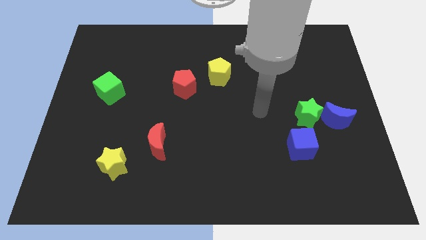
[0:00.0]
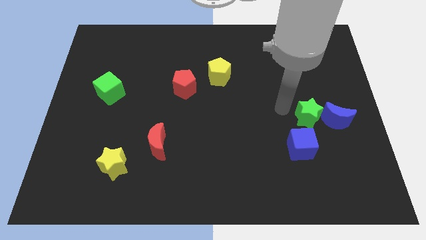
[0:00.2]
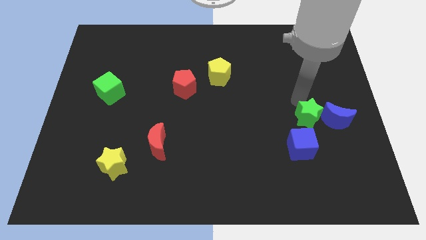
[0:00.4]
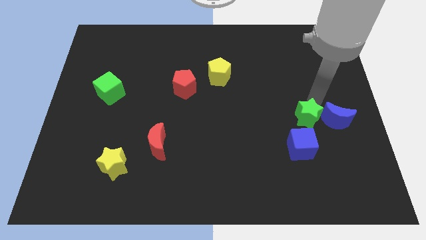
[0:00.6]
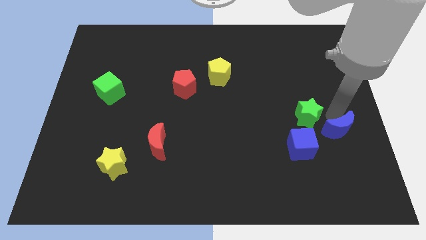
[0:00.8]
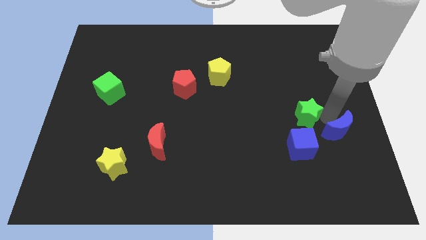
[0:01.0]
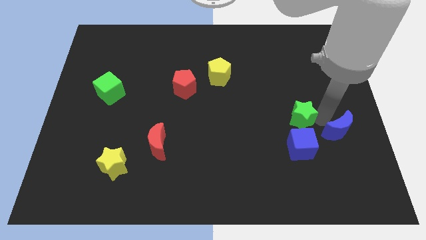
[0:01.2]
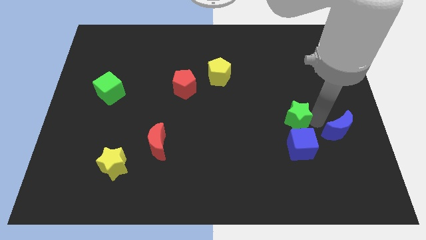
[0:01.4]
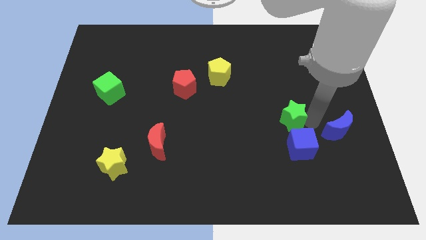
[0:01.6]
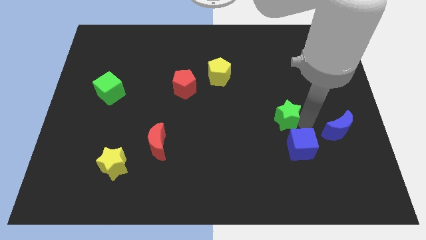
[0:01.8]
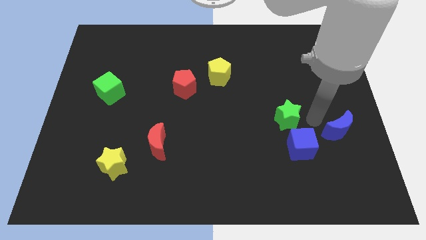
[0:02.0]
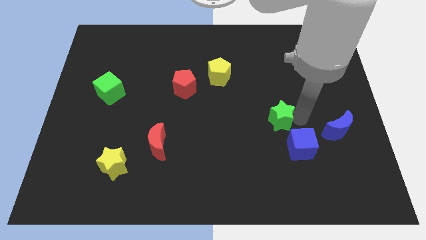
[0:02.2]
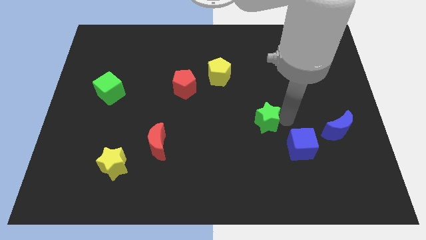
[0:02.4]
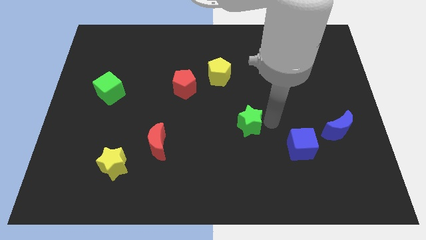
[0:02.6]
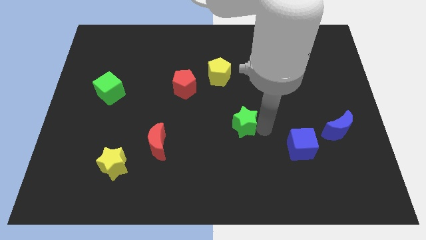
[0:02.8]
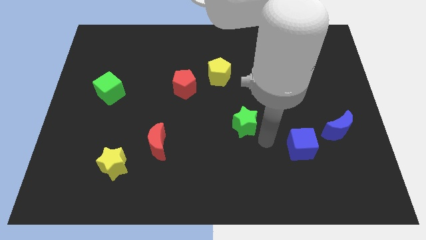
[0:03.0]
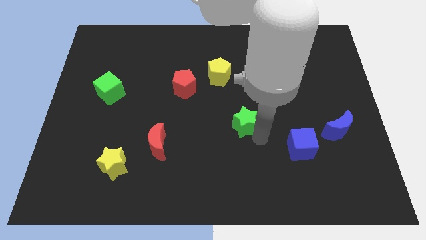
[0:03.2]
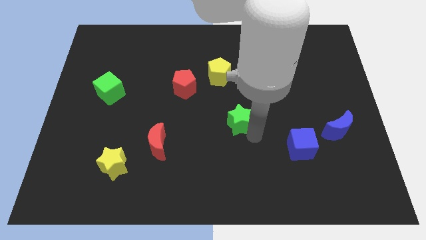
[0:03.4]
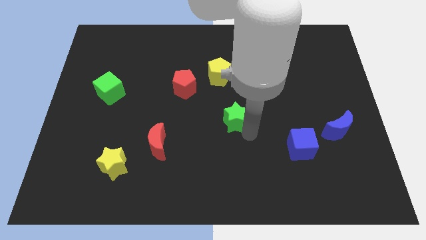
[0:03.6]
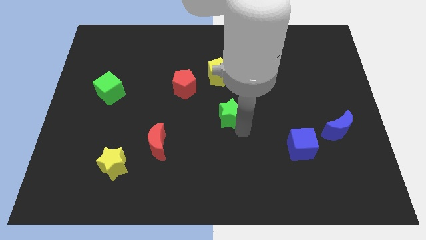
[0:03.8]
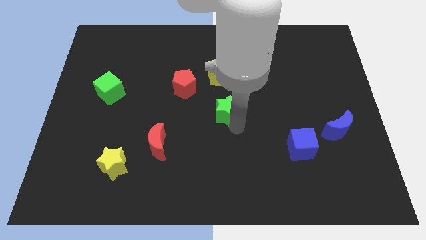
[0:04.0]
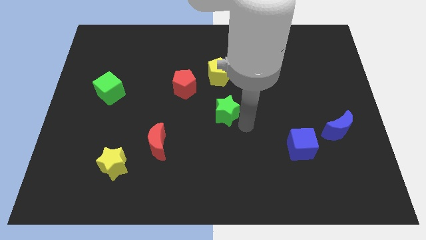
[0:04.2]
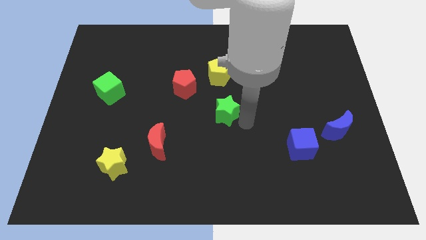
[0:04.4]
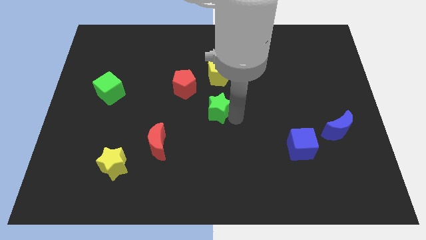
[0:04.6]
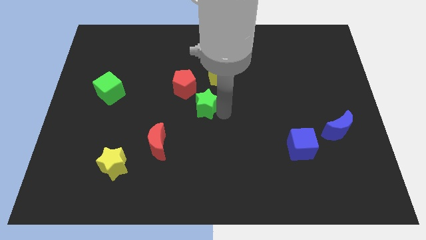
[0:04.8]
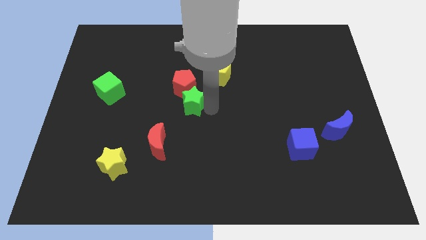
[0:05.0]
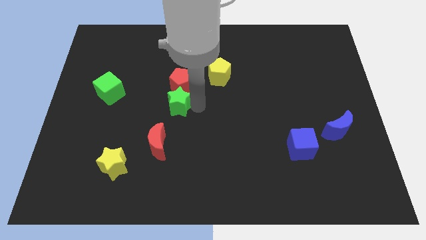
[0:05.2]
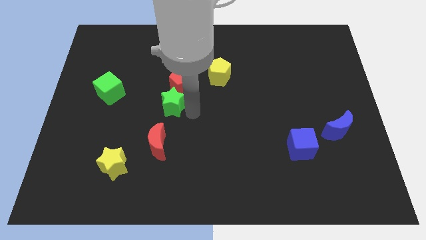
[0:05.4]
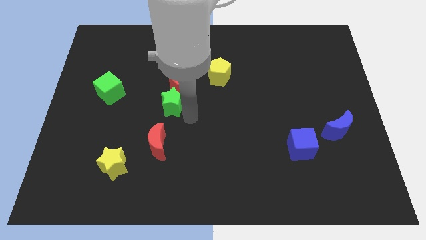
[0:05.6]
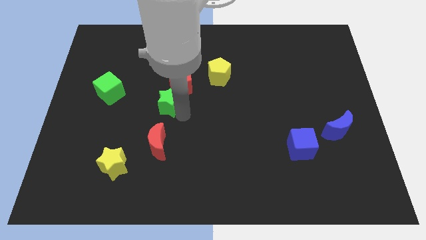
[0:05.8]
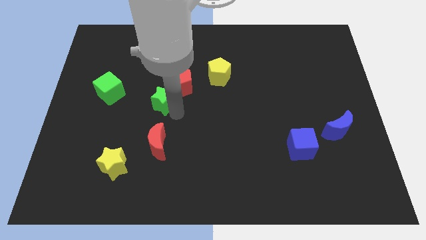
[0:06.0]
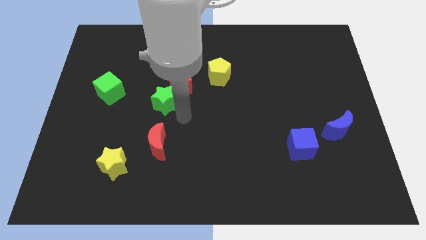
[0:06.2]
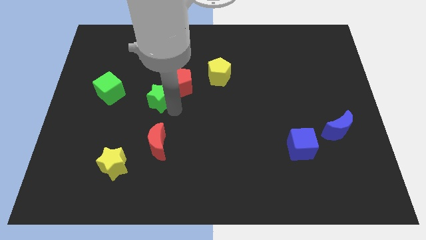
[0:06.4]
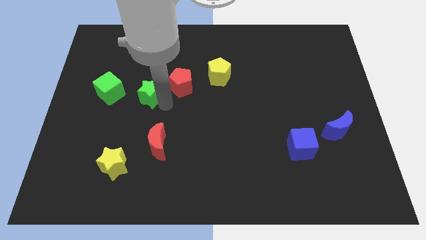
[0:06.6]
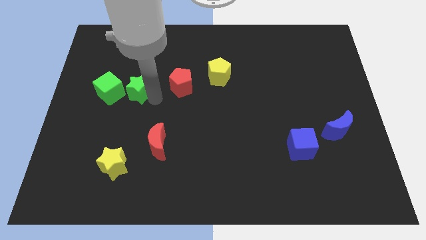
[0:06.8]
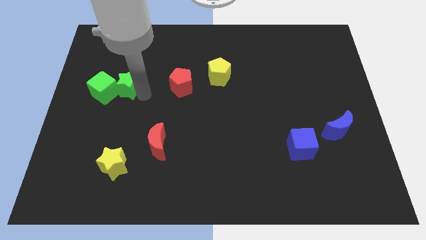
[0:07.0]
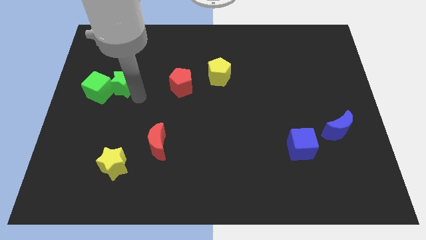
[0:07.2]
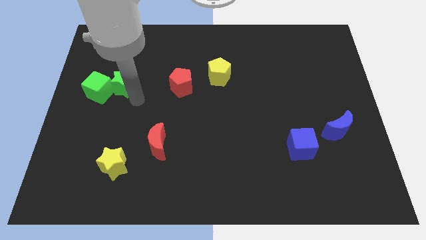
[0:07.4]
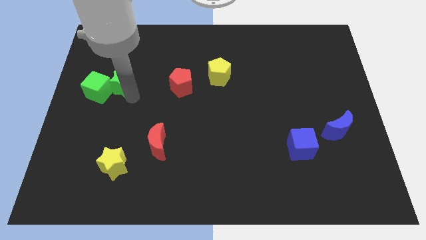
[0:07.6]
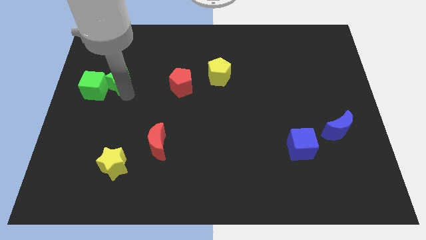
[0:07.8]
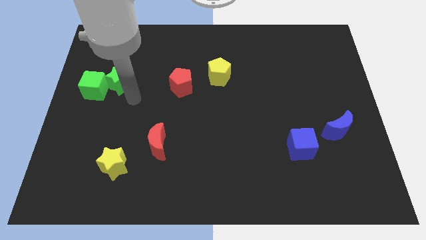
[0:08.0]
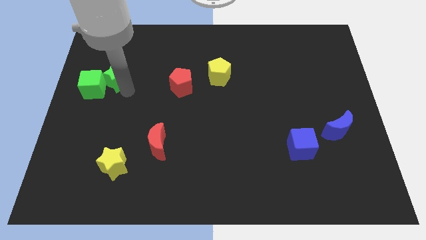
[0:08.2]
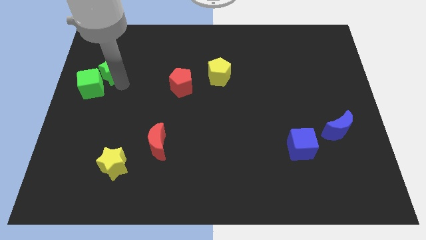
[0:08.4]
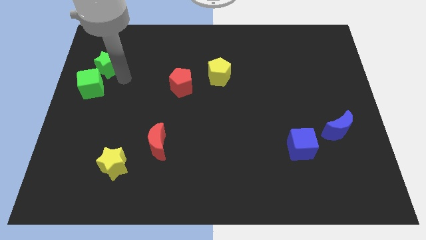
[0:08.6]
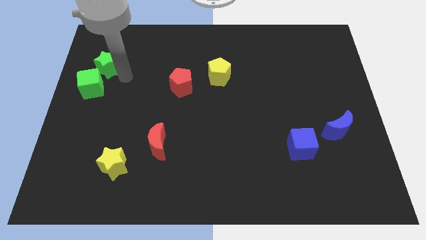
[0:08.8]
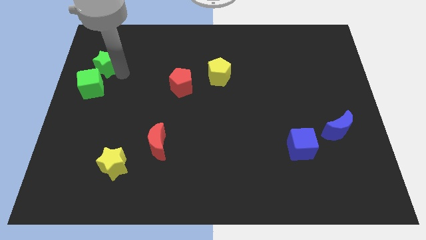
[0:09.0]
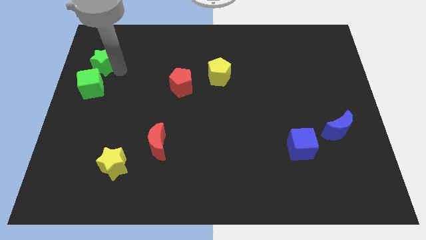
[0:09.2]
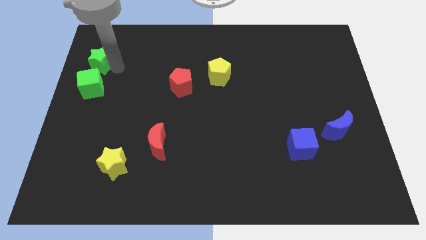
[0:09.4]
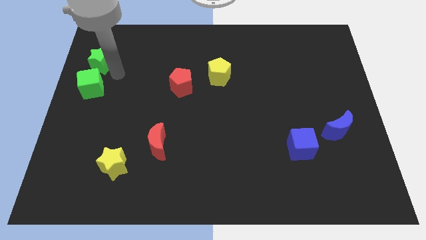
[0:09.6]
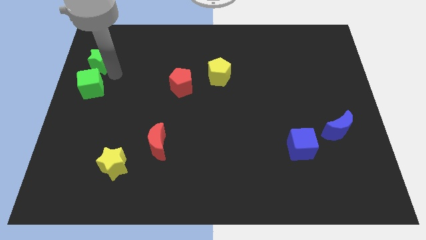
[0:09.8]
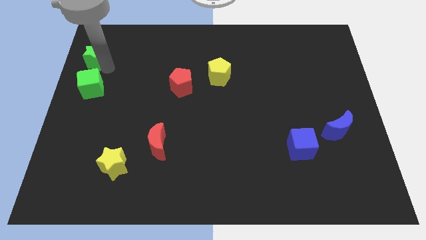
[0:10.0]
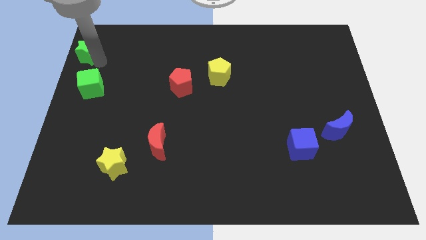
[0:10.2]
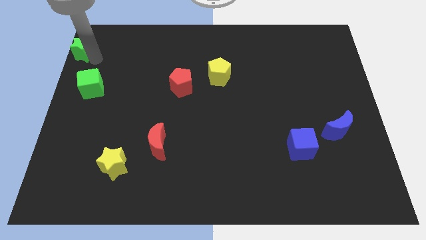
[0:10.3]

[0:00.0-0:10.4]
put the green star to the top left of the board

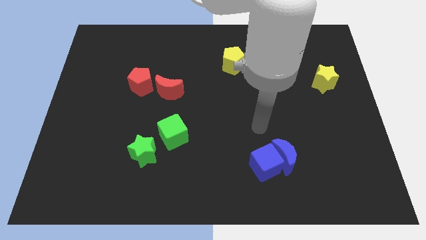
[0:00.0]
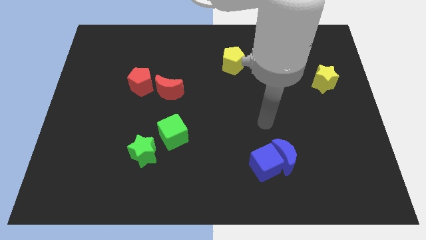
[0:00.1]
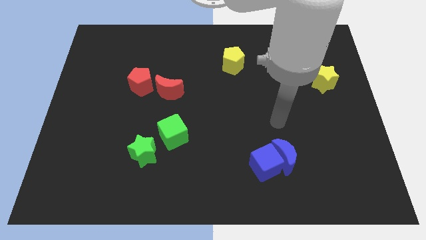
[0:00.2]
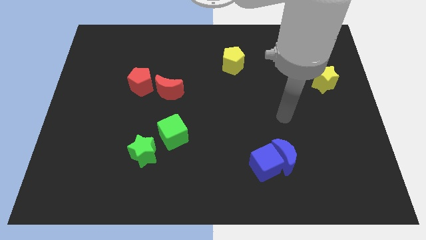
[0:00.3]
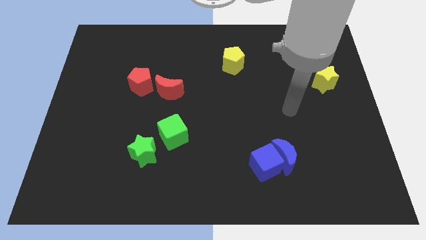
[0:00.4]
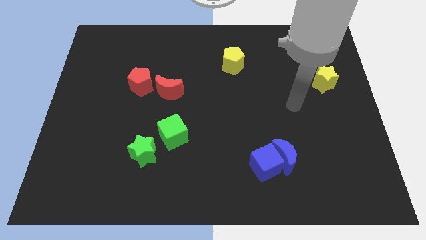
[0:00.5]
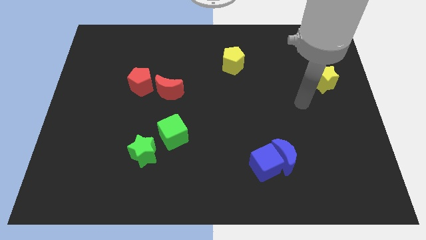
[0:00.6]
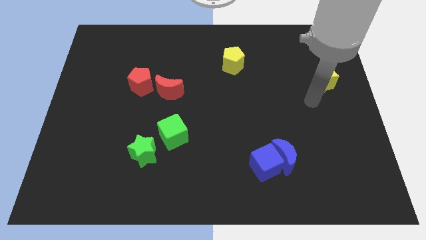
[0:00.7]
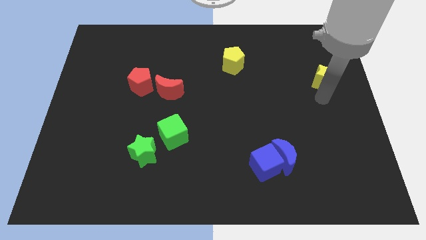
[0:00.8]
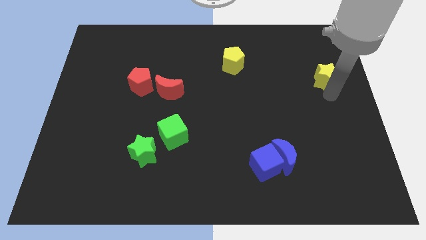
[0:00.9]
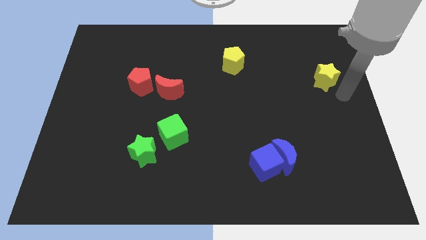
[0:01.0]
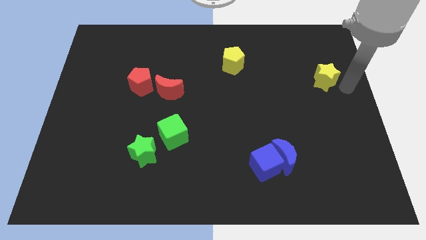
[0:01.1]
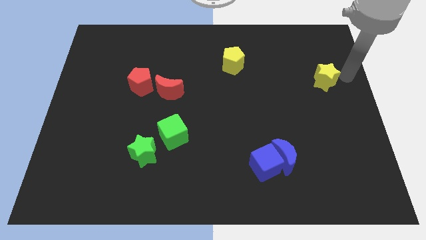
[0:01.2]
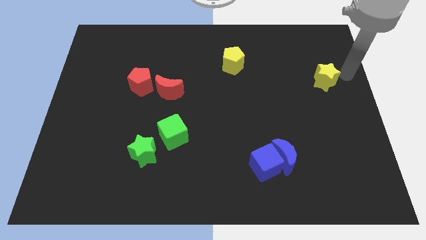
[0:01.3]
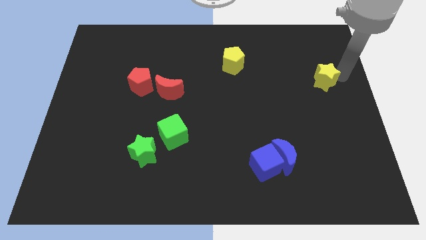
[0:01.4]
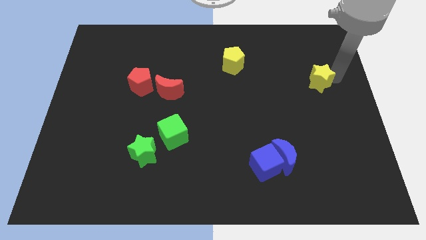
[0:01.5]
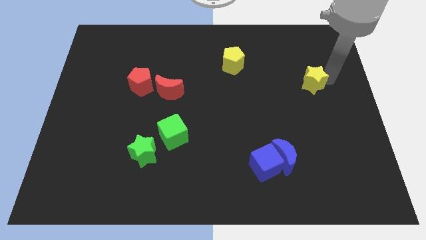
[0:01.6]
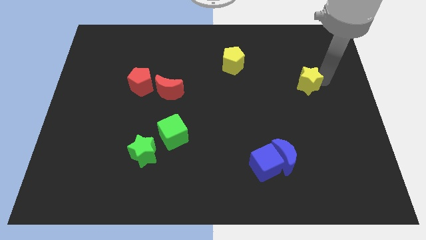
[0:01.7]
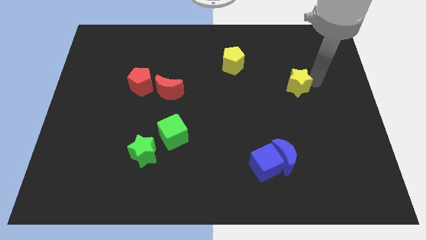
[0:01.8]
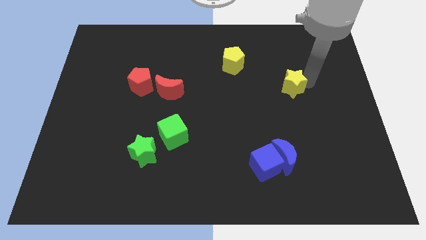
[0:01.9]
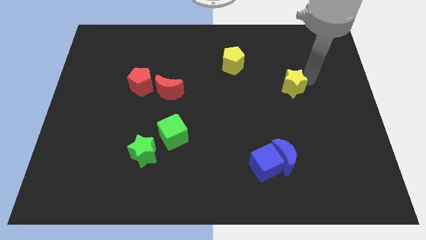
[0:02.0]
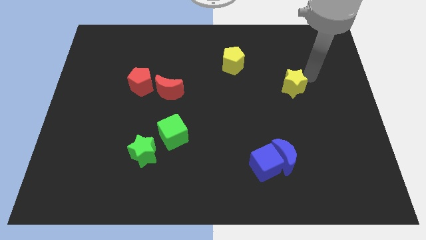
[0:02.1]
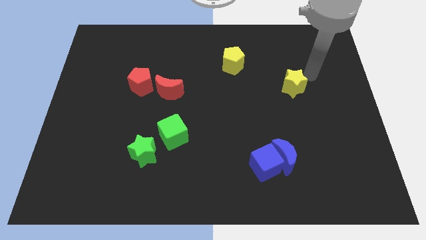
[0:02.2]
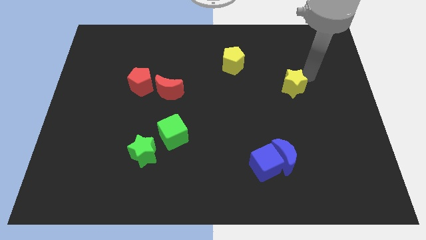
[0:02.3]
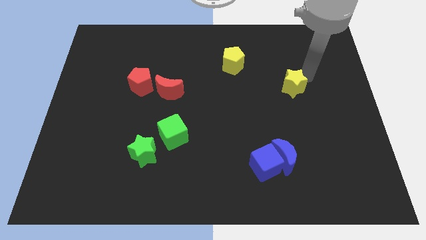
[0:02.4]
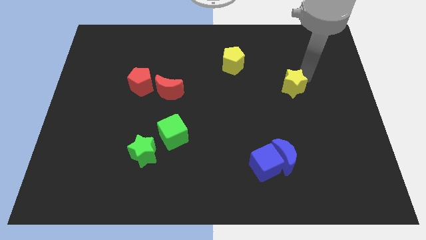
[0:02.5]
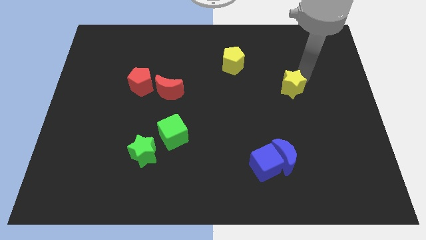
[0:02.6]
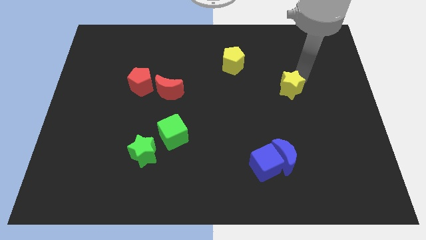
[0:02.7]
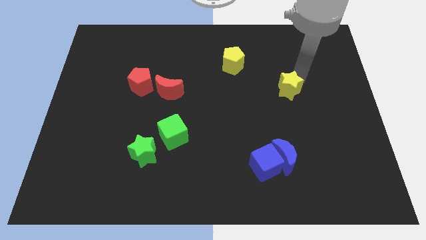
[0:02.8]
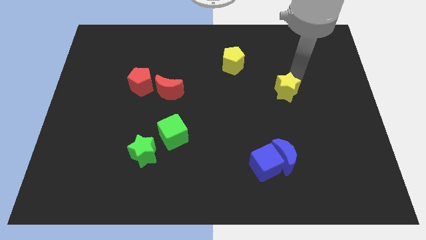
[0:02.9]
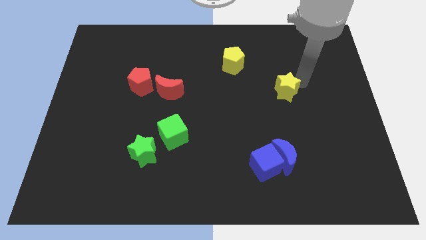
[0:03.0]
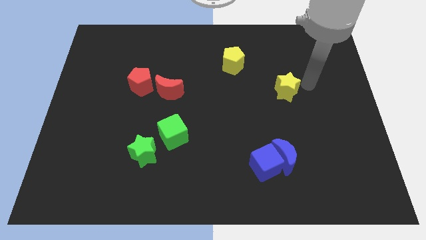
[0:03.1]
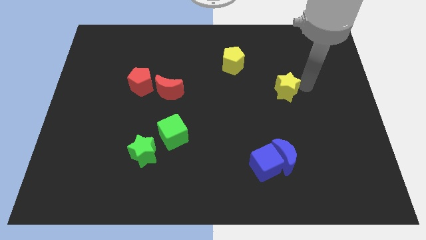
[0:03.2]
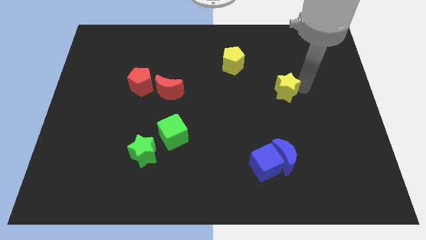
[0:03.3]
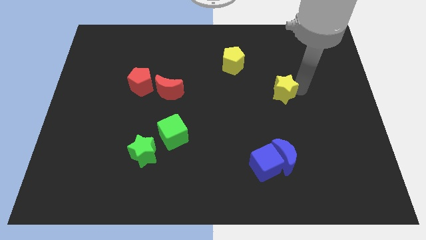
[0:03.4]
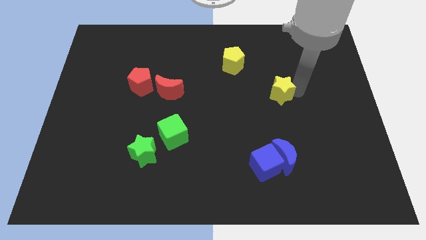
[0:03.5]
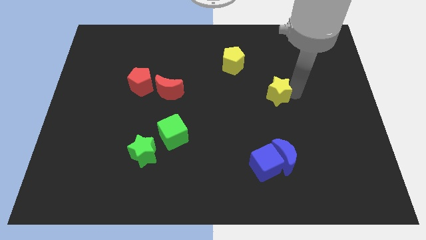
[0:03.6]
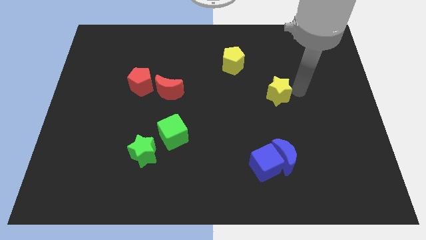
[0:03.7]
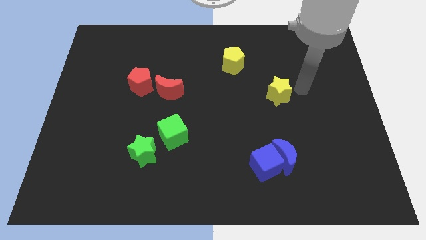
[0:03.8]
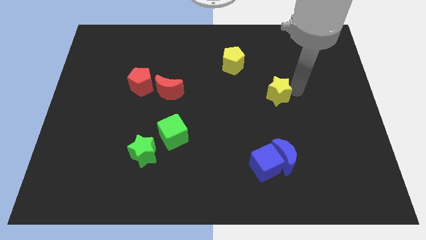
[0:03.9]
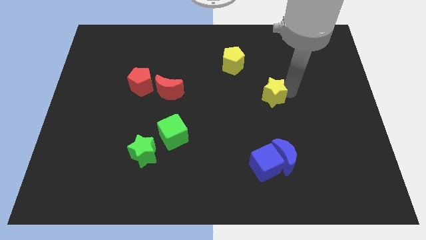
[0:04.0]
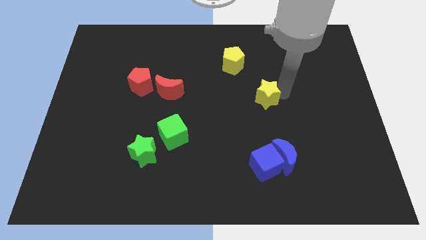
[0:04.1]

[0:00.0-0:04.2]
push the yellow star to the middle
